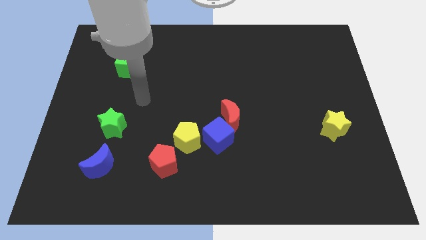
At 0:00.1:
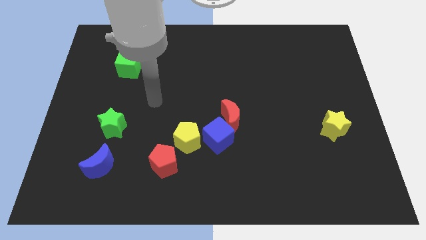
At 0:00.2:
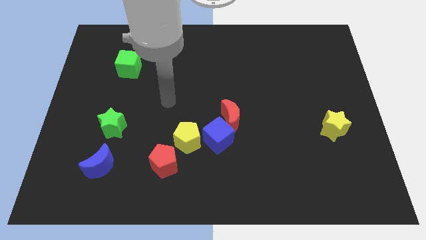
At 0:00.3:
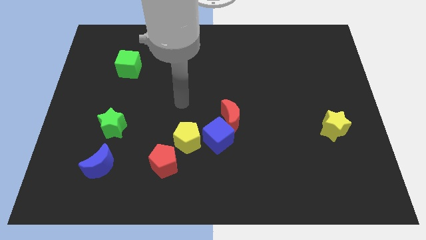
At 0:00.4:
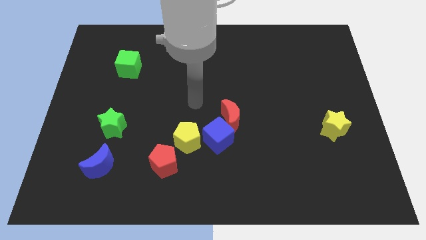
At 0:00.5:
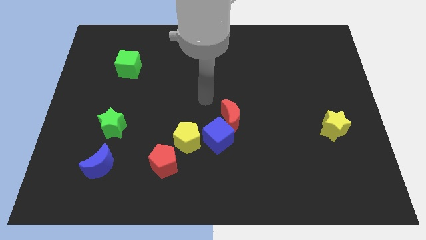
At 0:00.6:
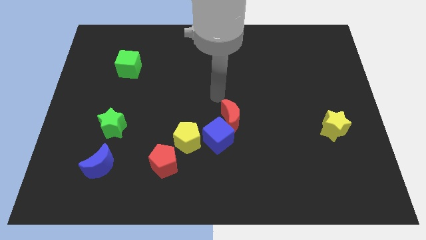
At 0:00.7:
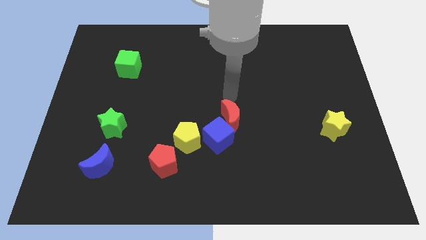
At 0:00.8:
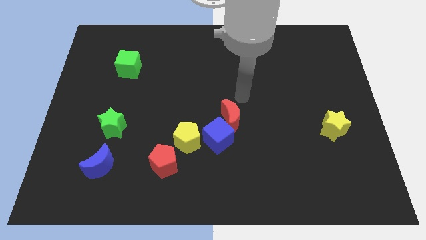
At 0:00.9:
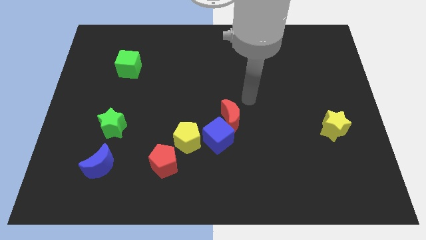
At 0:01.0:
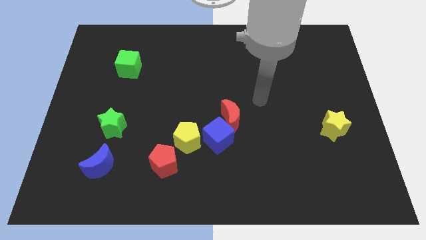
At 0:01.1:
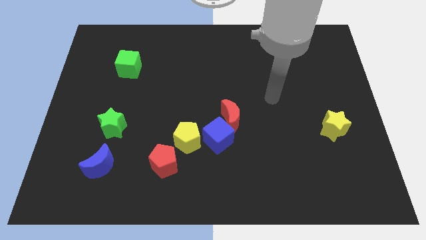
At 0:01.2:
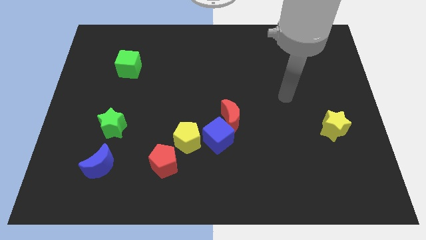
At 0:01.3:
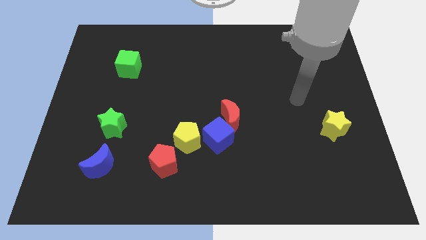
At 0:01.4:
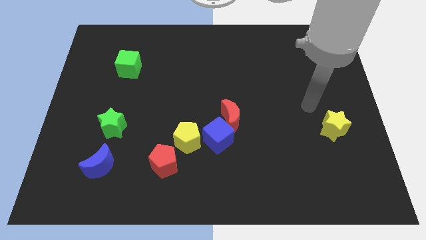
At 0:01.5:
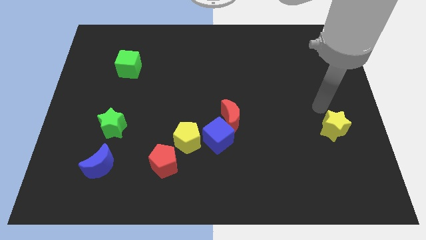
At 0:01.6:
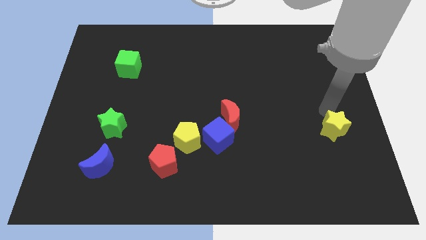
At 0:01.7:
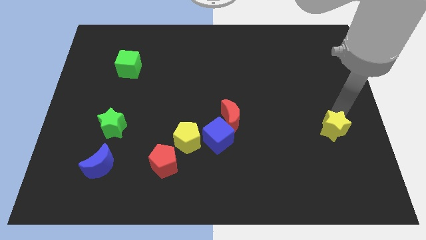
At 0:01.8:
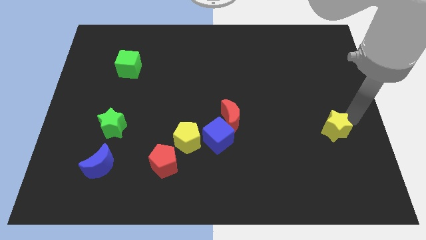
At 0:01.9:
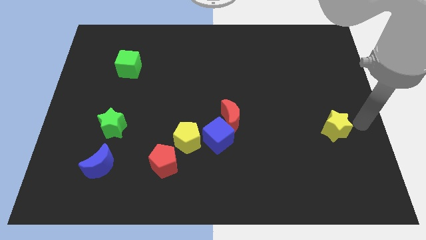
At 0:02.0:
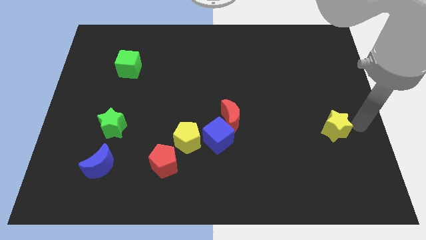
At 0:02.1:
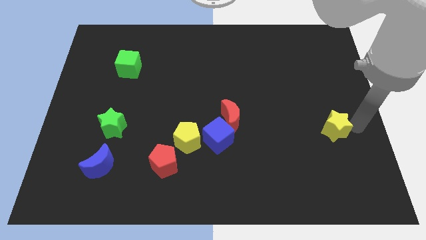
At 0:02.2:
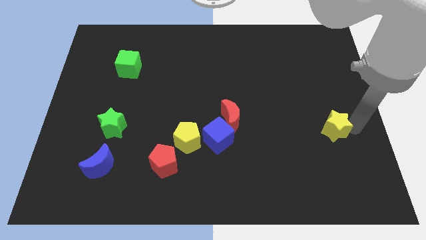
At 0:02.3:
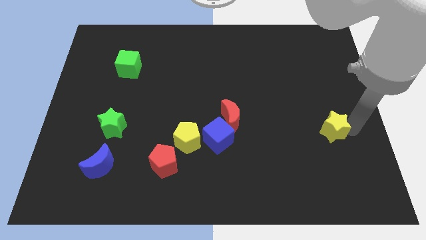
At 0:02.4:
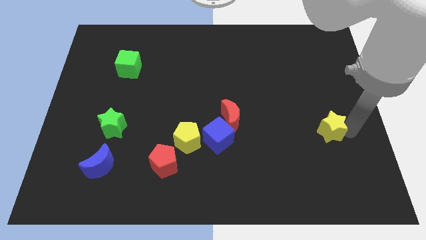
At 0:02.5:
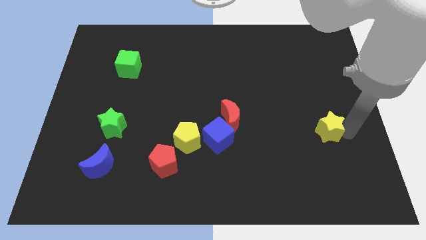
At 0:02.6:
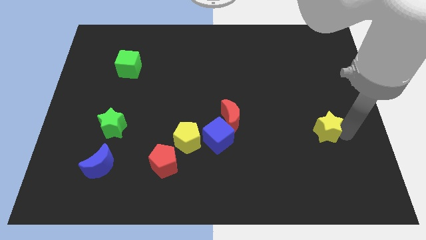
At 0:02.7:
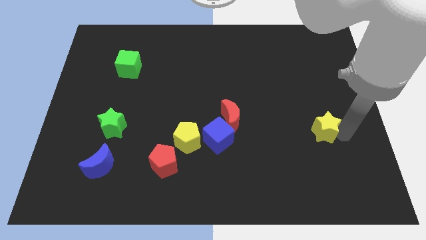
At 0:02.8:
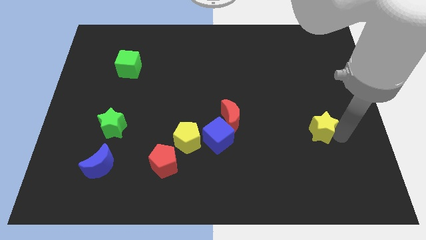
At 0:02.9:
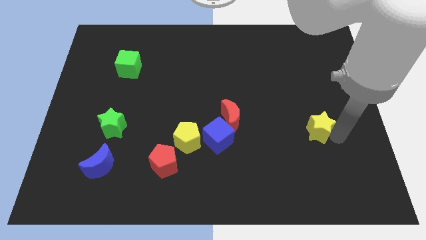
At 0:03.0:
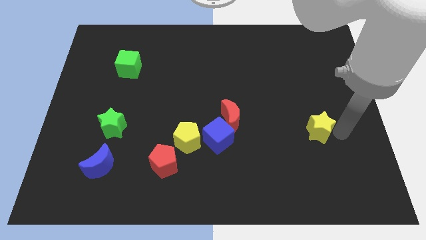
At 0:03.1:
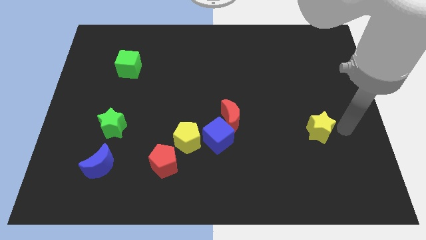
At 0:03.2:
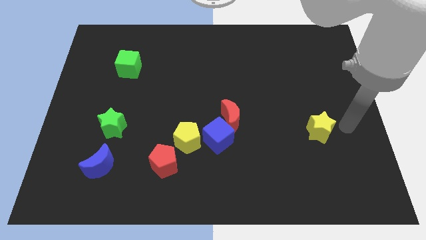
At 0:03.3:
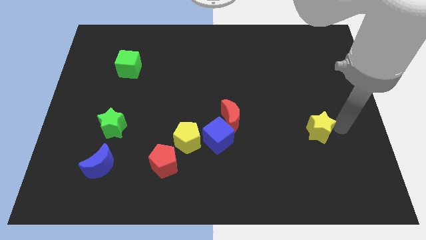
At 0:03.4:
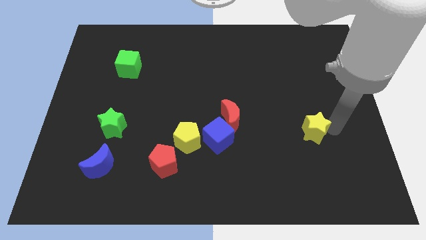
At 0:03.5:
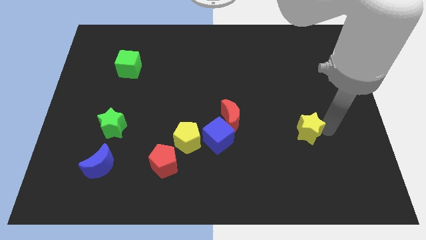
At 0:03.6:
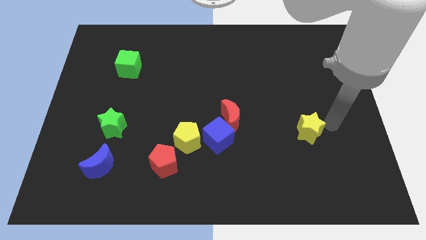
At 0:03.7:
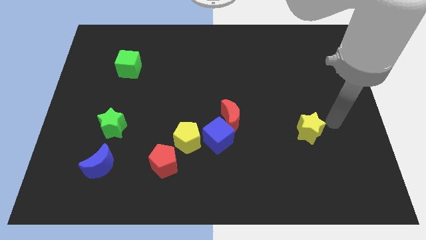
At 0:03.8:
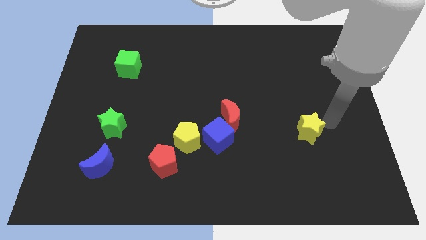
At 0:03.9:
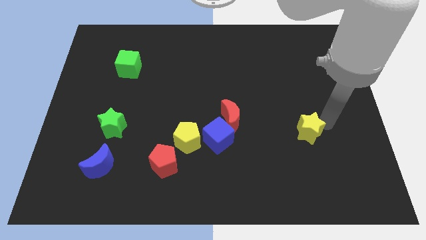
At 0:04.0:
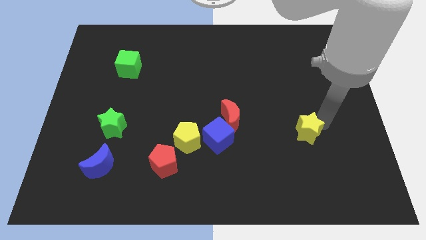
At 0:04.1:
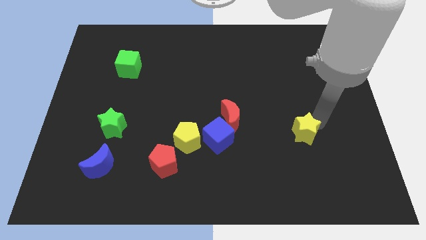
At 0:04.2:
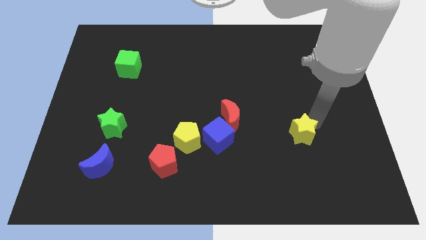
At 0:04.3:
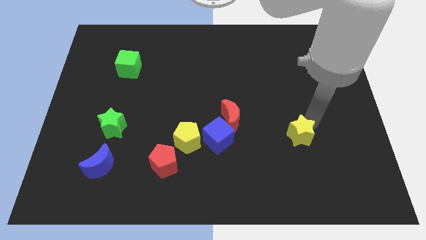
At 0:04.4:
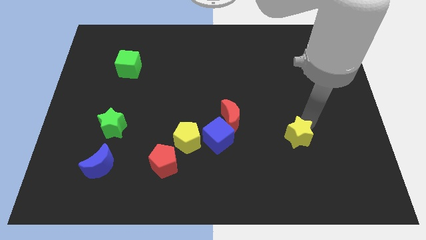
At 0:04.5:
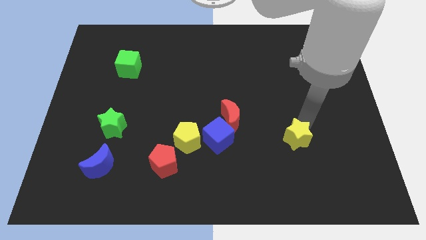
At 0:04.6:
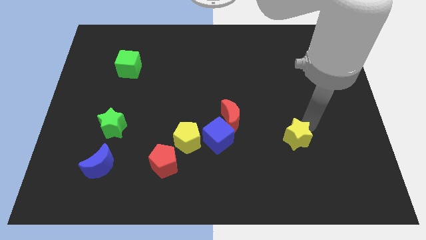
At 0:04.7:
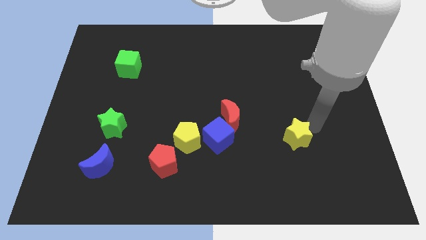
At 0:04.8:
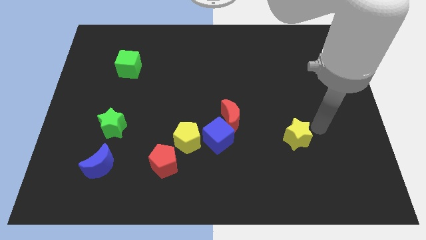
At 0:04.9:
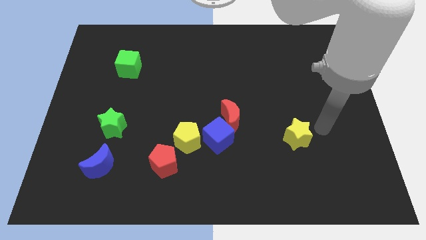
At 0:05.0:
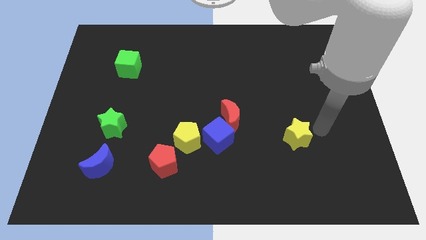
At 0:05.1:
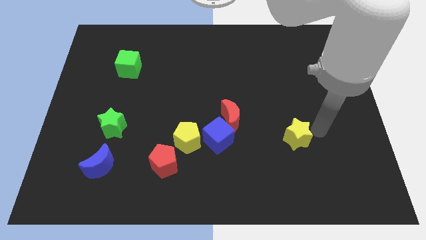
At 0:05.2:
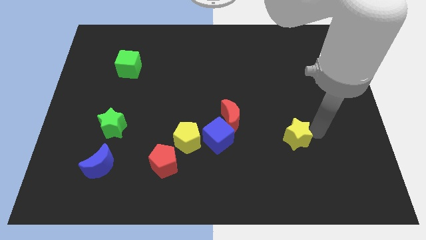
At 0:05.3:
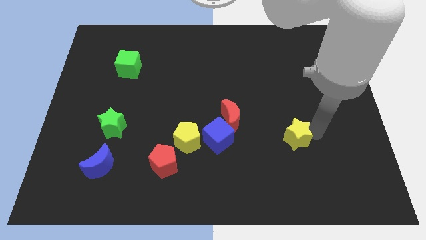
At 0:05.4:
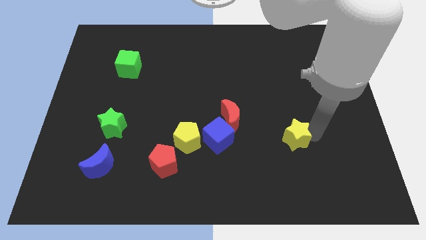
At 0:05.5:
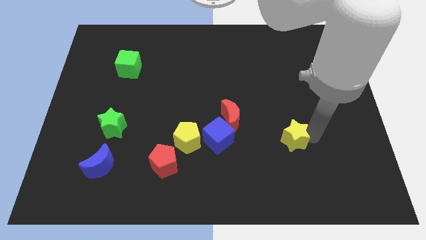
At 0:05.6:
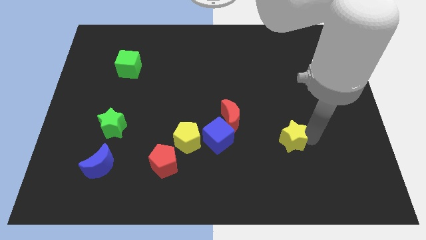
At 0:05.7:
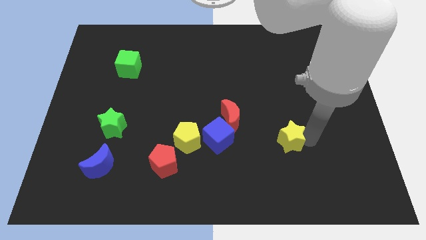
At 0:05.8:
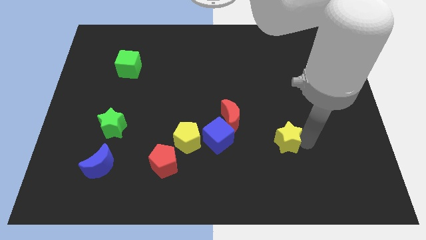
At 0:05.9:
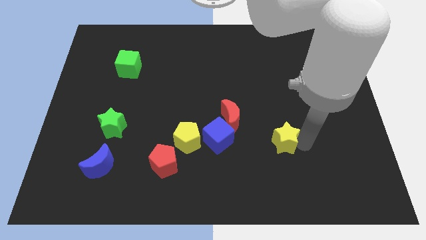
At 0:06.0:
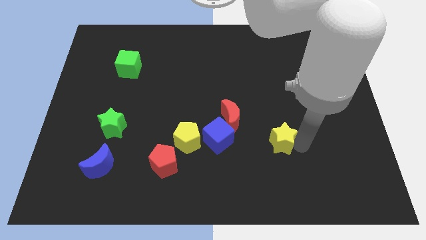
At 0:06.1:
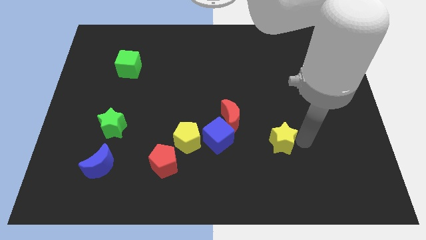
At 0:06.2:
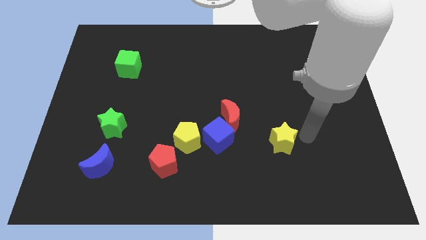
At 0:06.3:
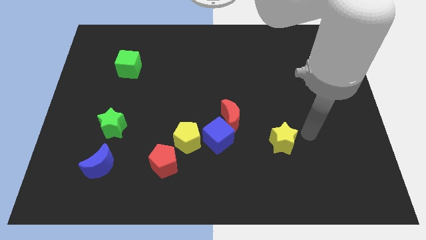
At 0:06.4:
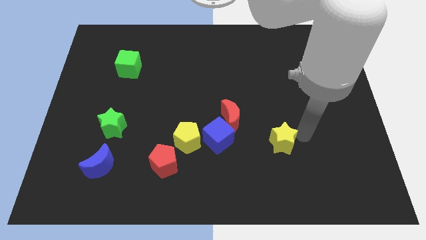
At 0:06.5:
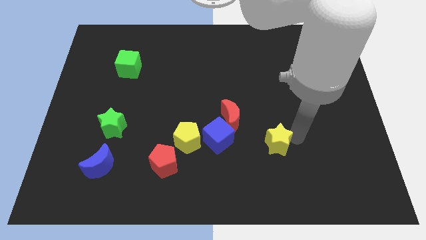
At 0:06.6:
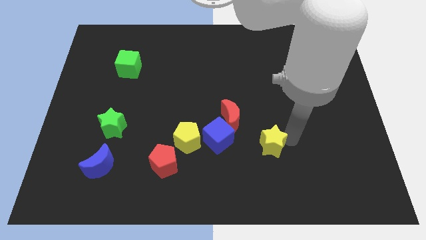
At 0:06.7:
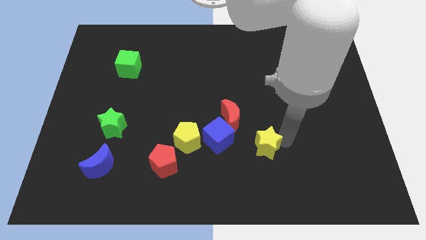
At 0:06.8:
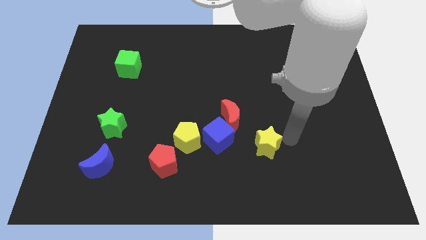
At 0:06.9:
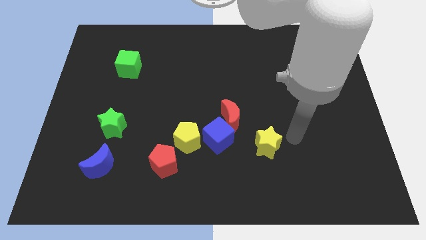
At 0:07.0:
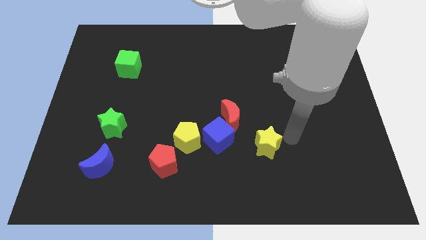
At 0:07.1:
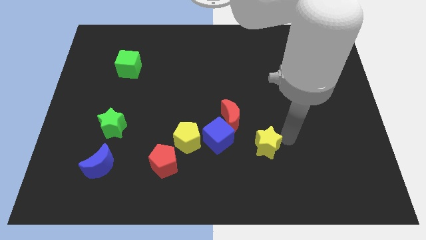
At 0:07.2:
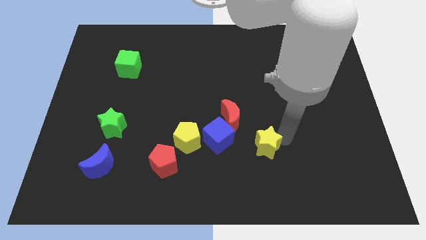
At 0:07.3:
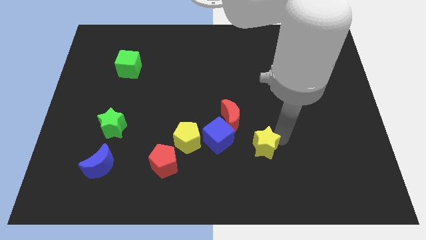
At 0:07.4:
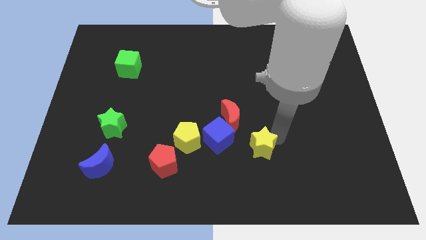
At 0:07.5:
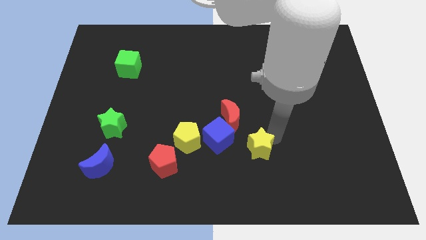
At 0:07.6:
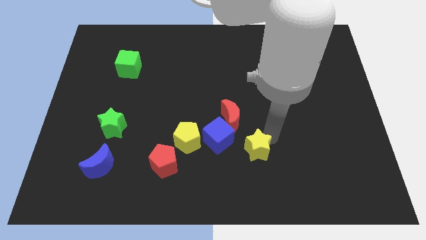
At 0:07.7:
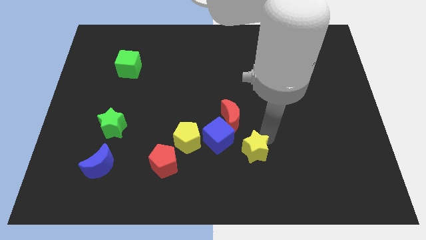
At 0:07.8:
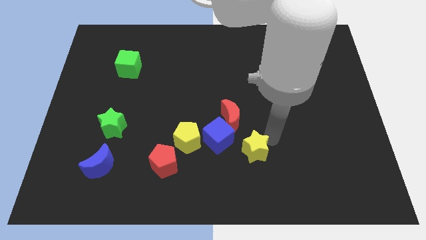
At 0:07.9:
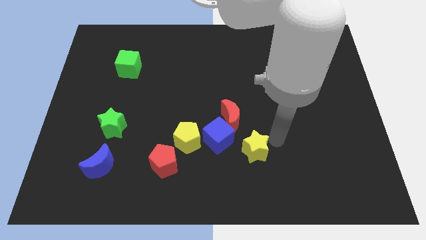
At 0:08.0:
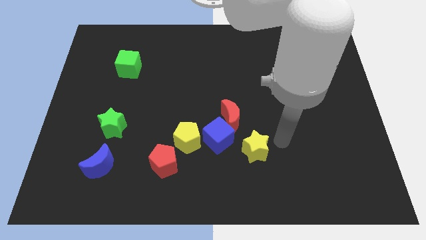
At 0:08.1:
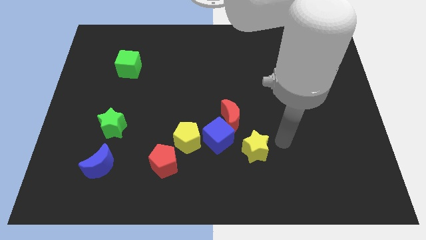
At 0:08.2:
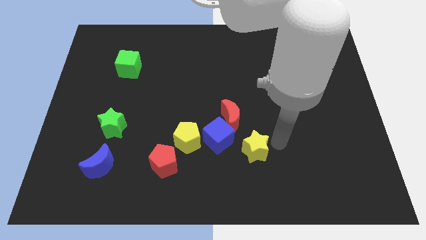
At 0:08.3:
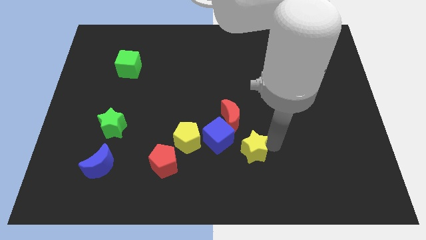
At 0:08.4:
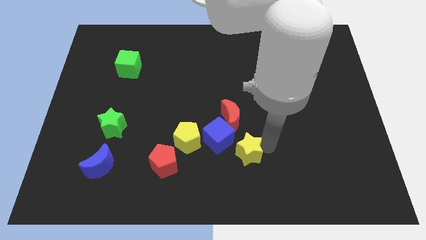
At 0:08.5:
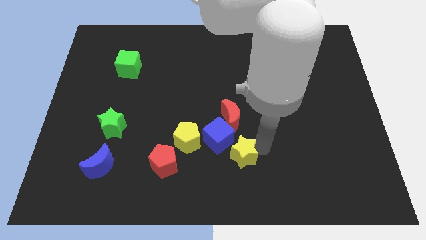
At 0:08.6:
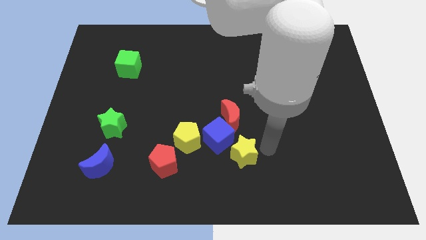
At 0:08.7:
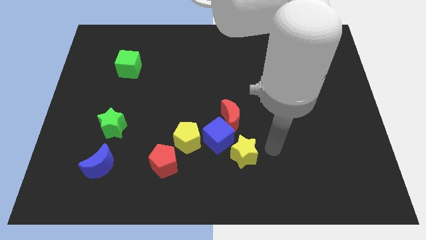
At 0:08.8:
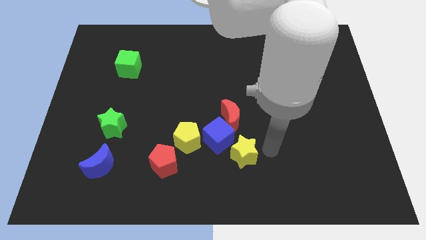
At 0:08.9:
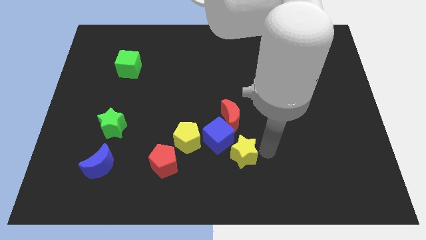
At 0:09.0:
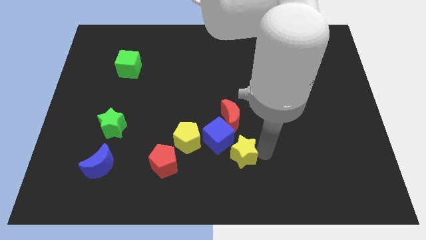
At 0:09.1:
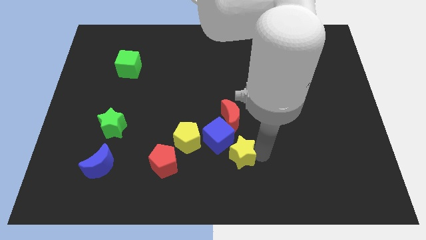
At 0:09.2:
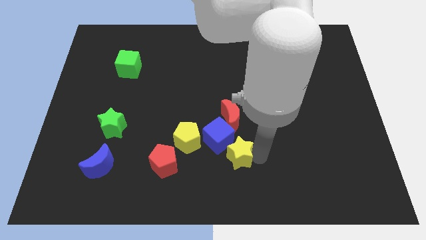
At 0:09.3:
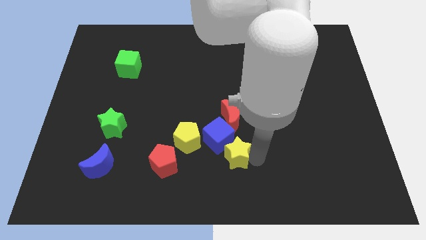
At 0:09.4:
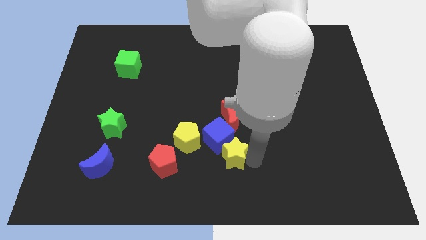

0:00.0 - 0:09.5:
move the yellow star to the bottom right of the yellow pentagon
